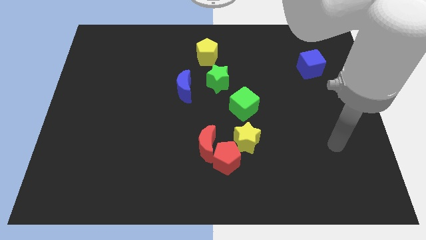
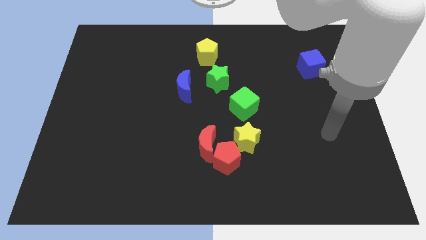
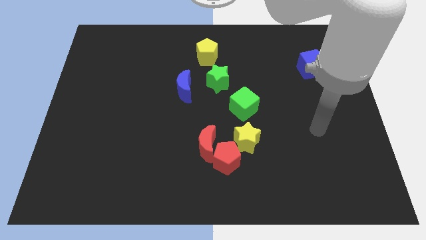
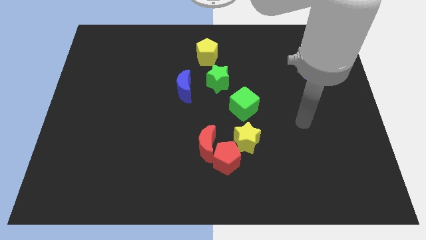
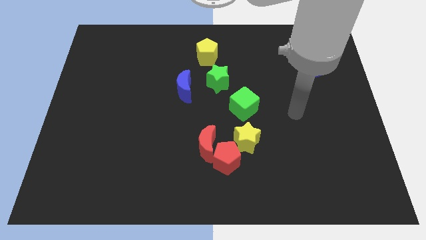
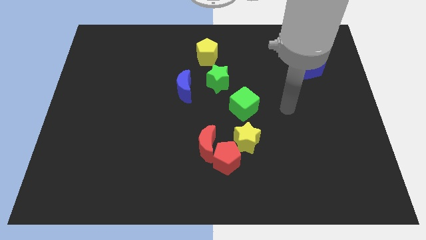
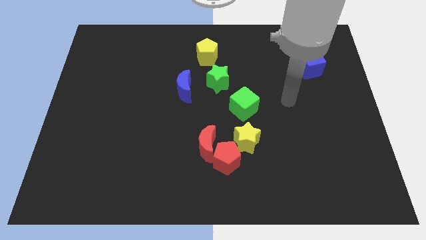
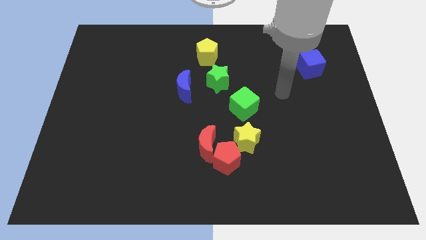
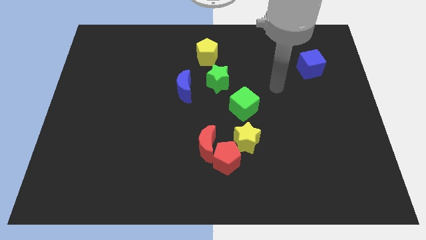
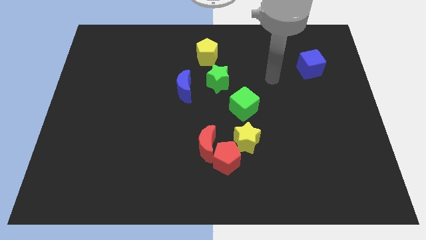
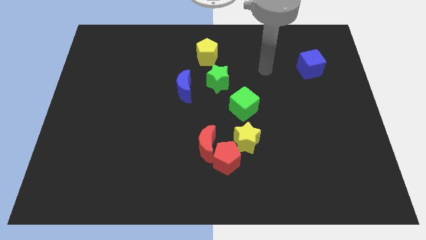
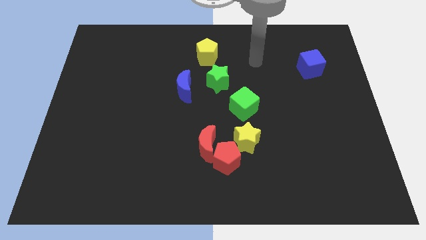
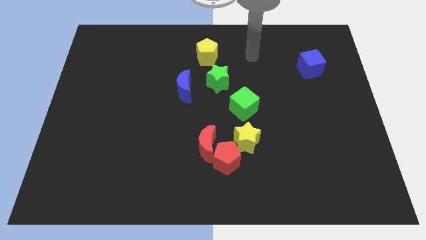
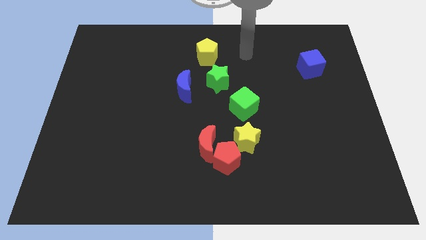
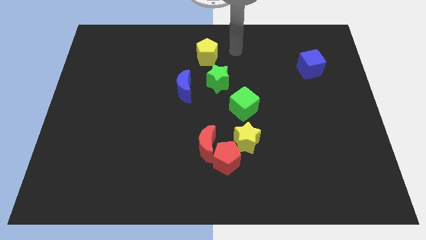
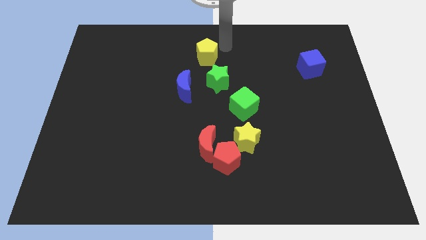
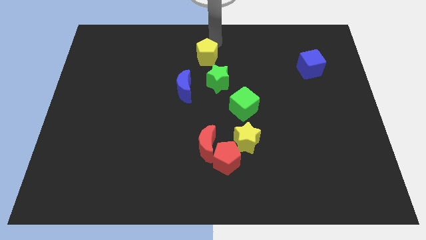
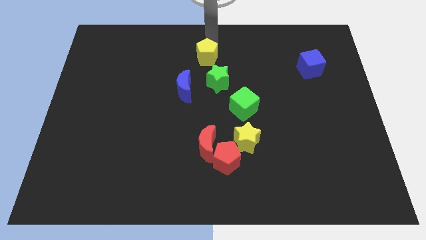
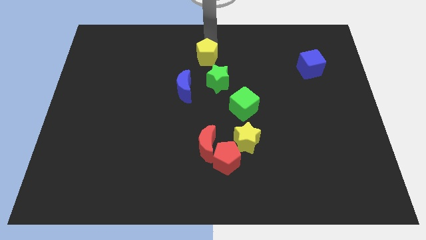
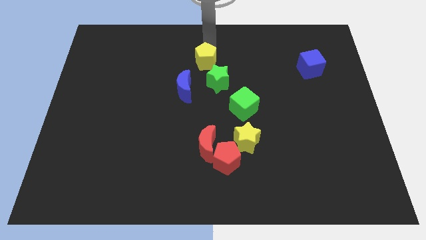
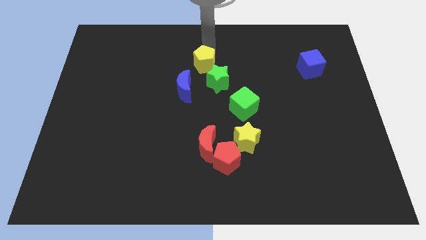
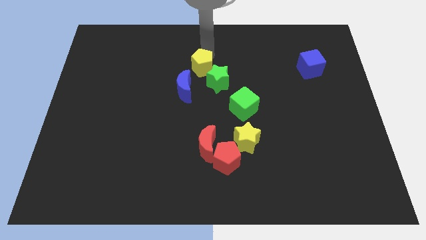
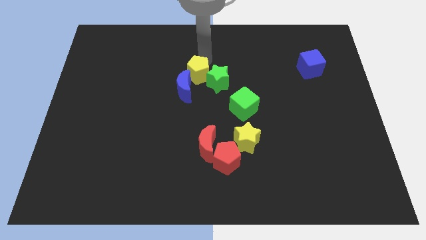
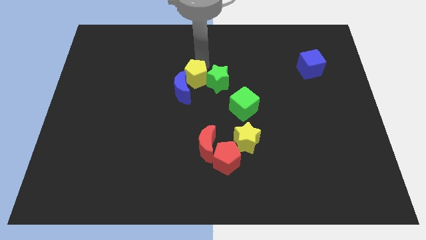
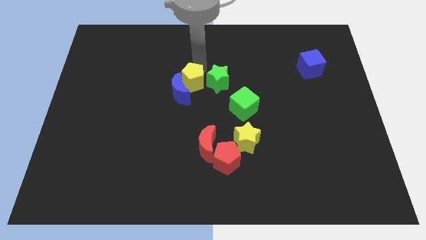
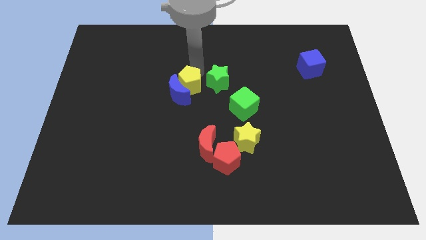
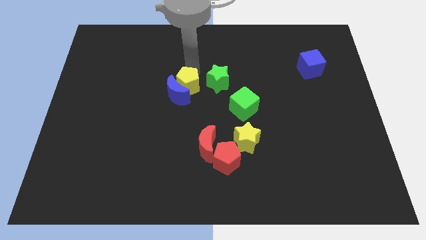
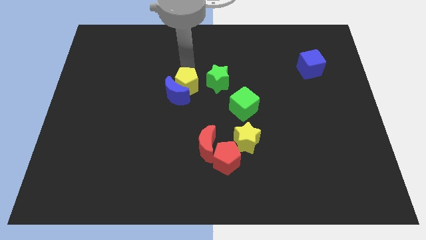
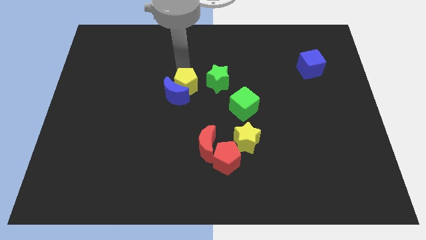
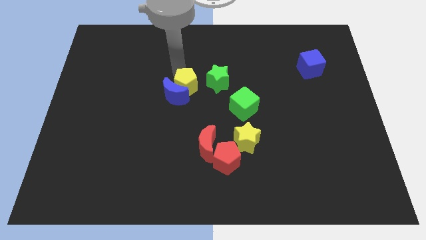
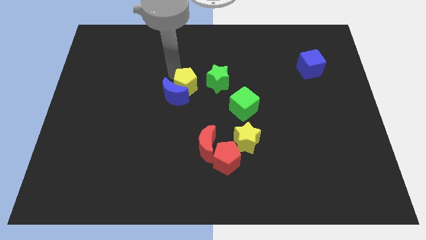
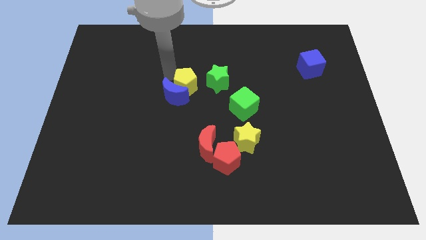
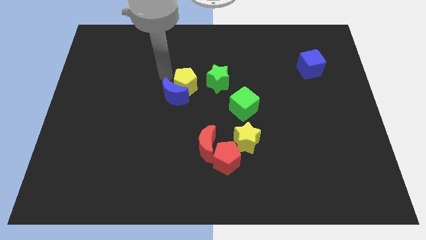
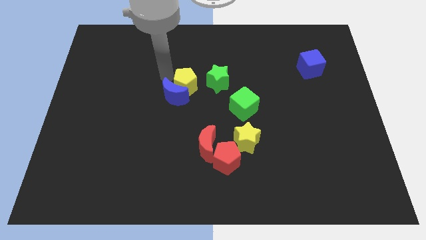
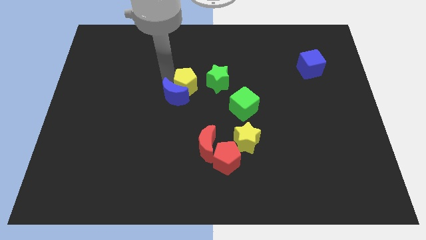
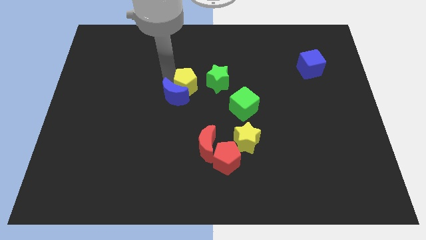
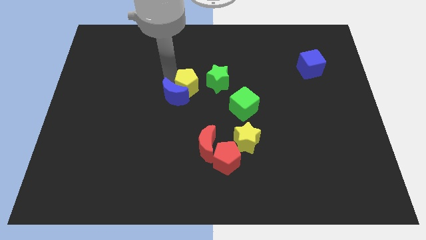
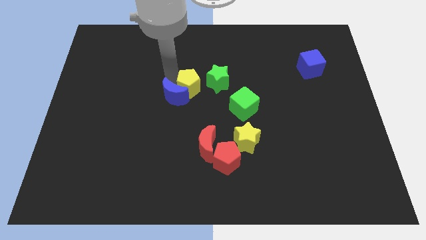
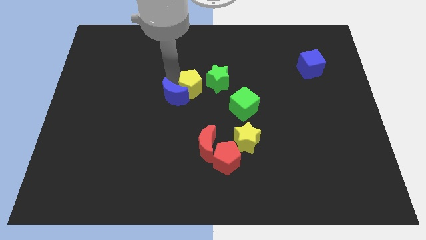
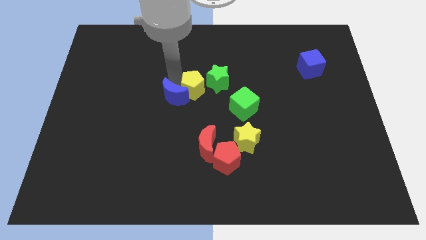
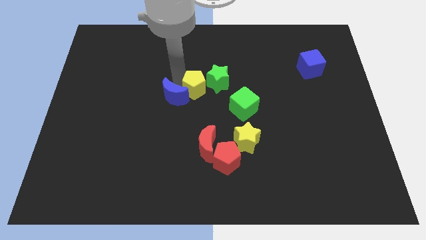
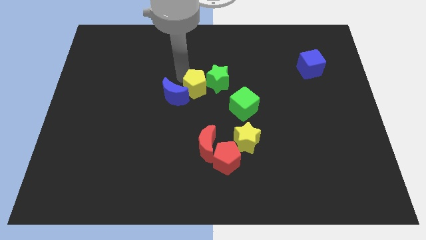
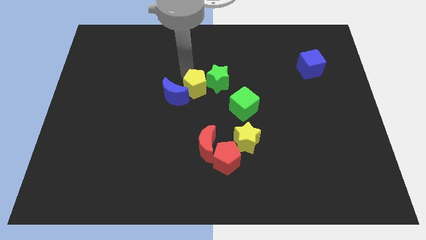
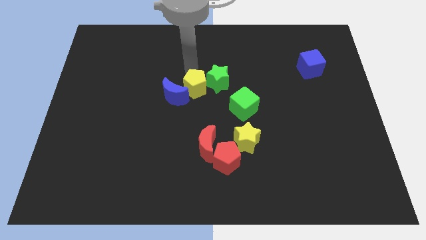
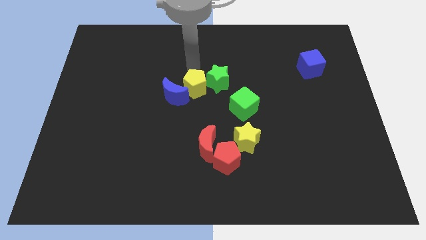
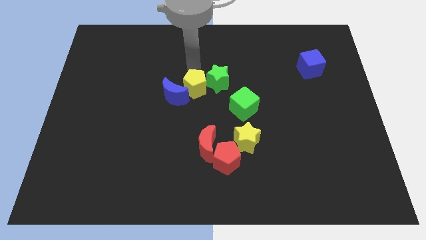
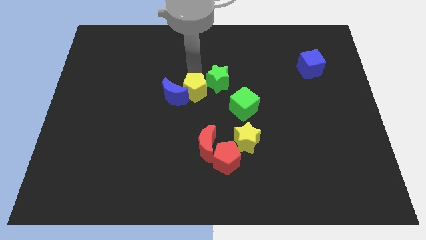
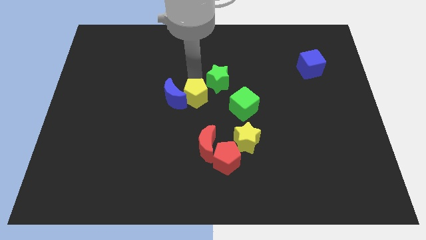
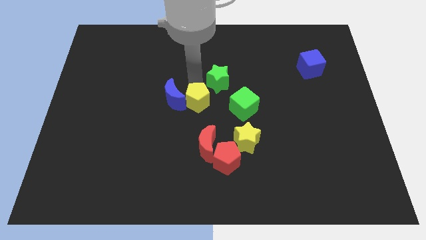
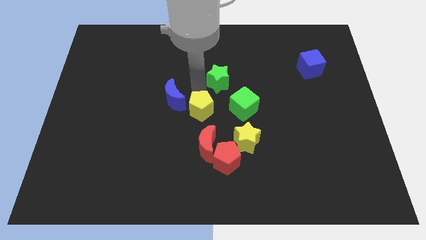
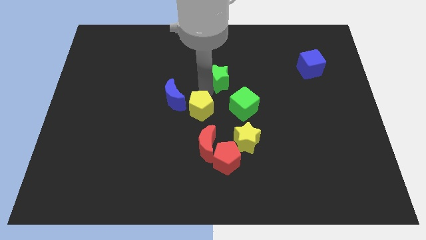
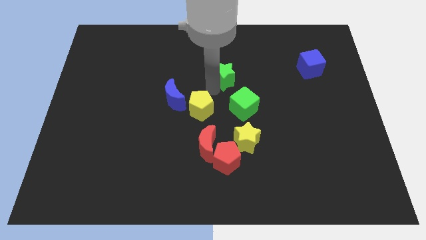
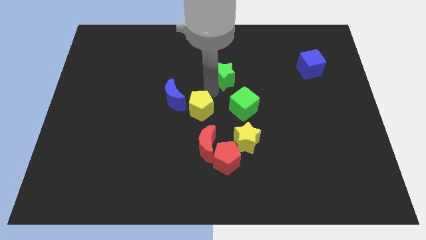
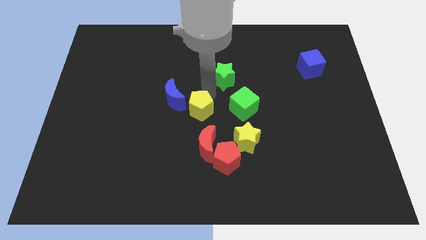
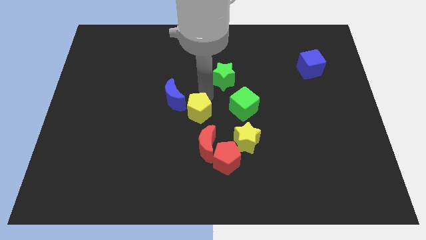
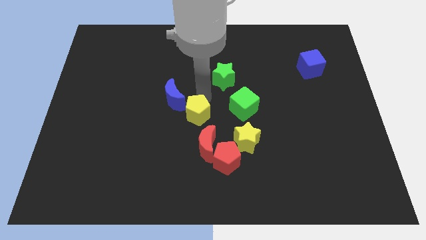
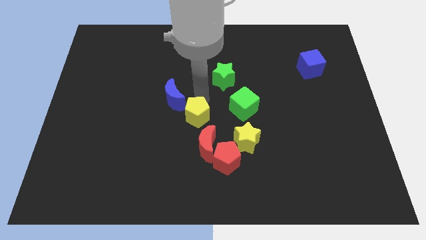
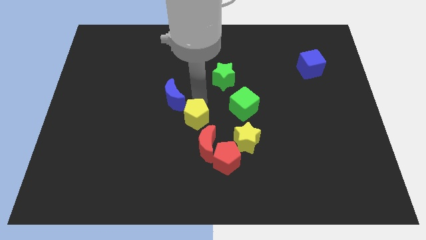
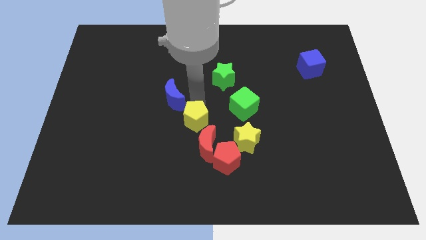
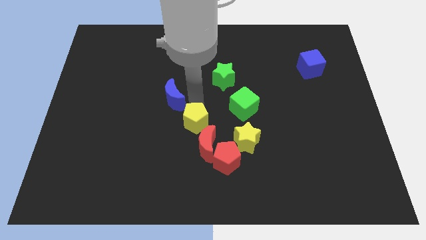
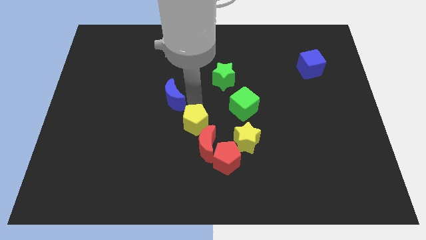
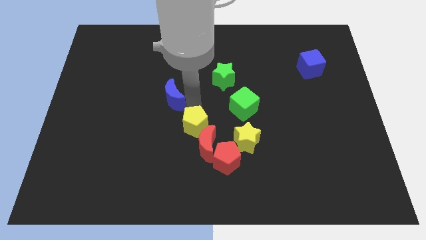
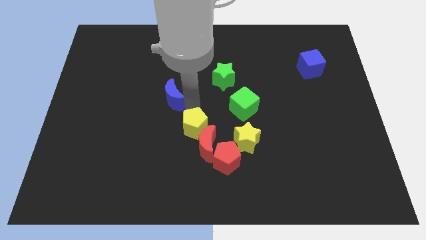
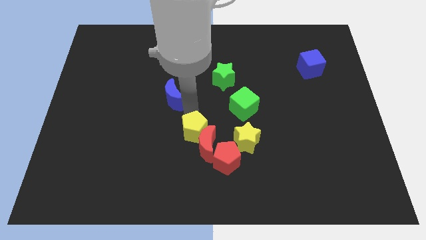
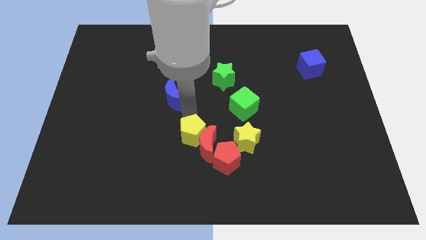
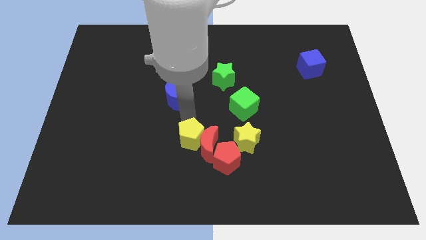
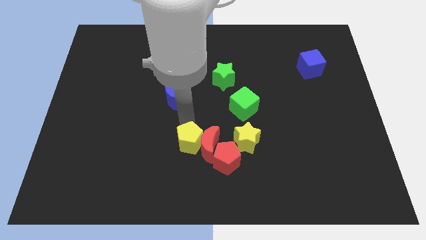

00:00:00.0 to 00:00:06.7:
slide the yellow pentagon to the bottom left side of the red moon
